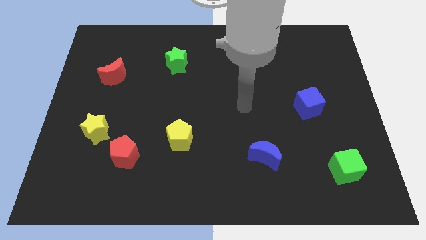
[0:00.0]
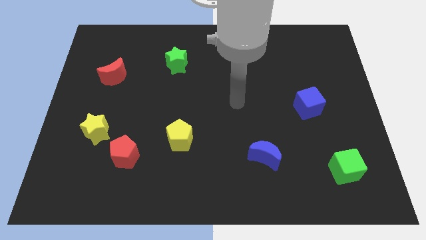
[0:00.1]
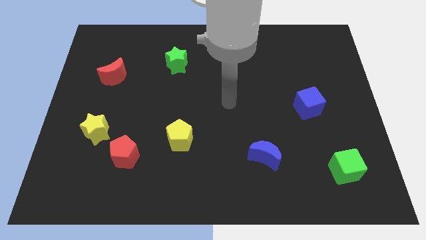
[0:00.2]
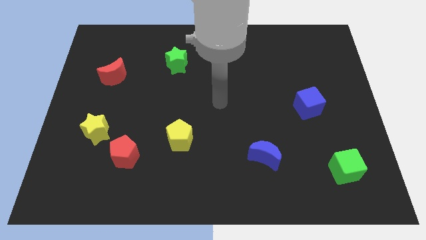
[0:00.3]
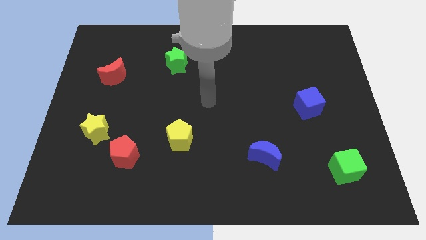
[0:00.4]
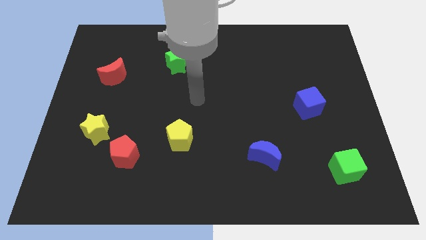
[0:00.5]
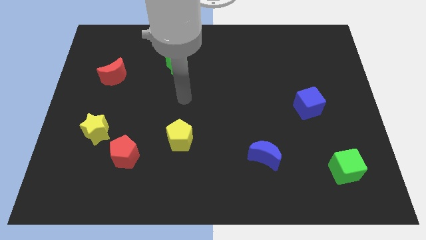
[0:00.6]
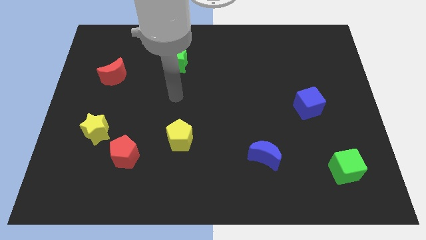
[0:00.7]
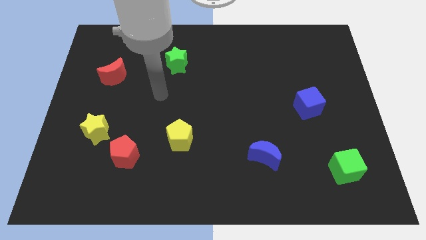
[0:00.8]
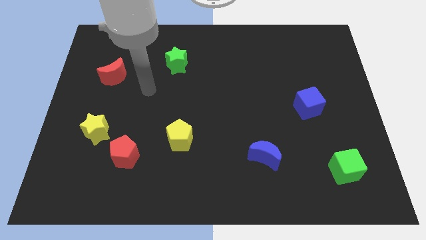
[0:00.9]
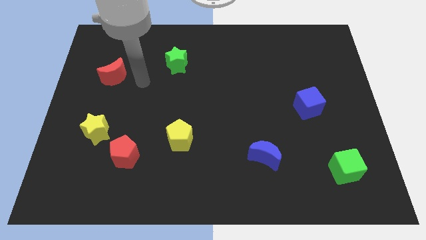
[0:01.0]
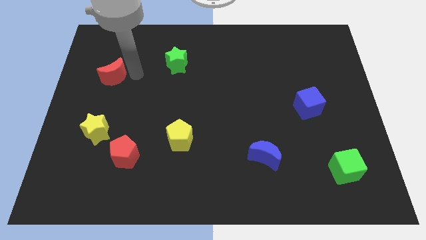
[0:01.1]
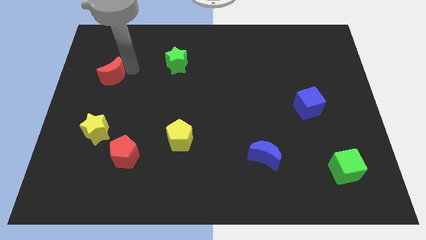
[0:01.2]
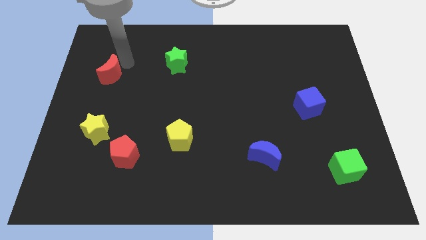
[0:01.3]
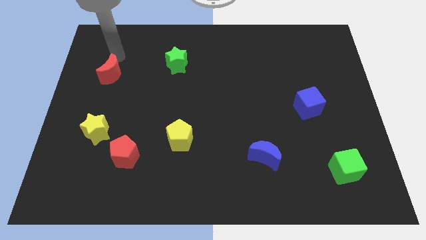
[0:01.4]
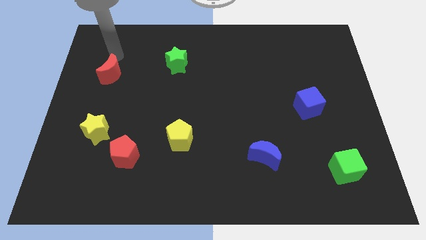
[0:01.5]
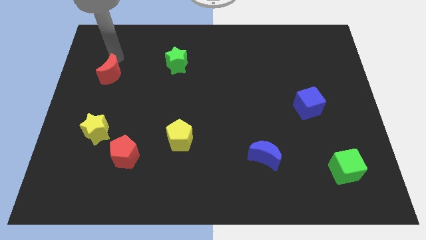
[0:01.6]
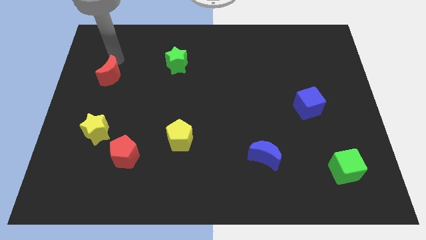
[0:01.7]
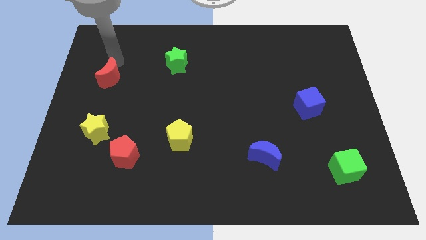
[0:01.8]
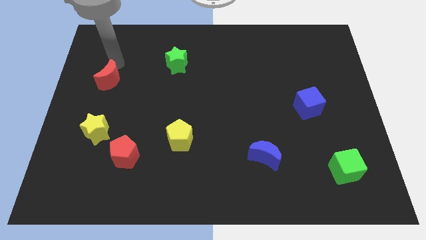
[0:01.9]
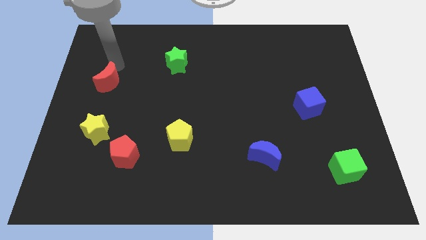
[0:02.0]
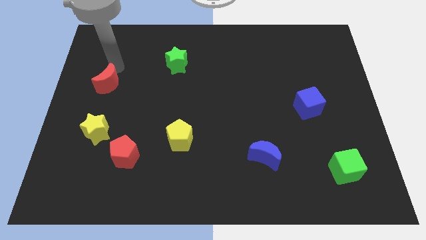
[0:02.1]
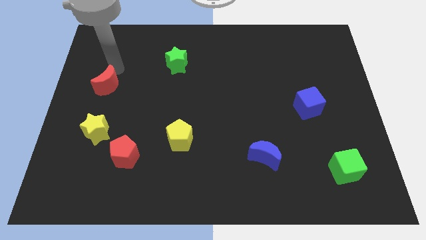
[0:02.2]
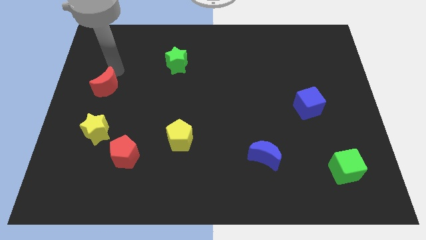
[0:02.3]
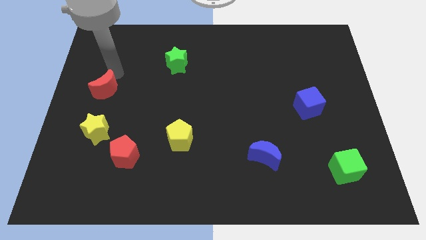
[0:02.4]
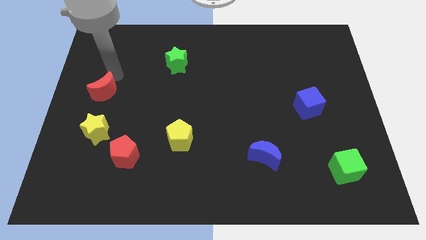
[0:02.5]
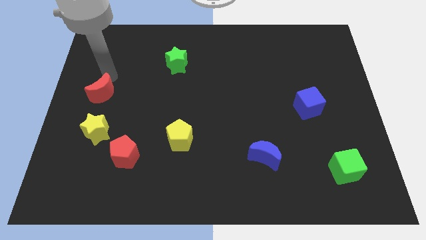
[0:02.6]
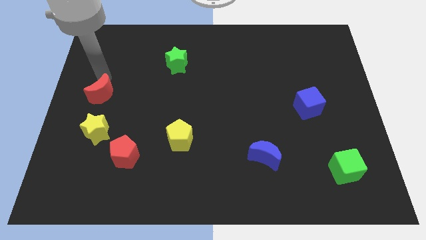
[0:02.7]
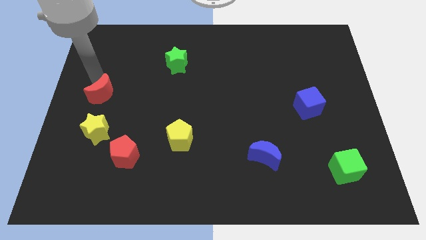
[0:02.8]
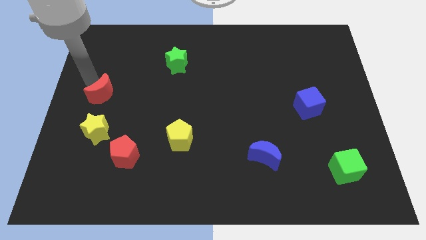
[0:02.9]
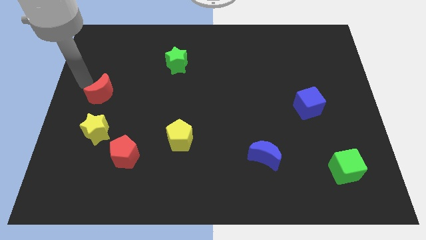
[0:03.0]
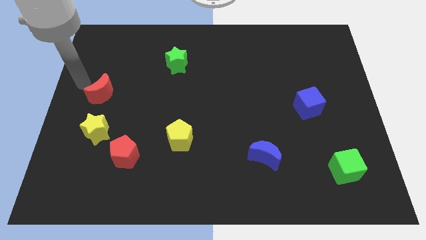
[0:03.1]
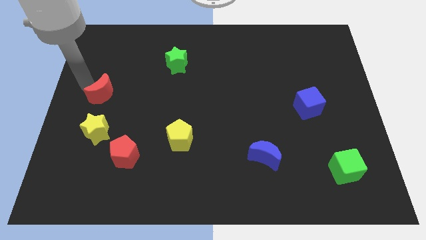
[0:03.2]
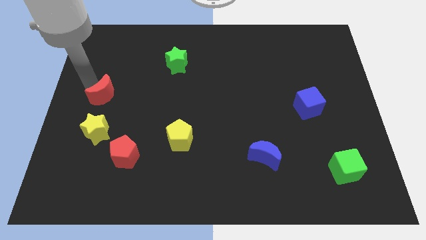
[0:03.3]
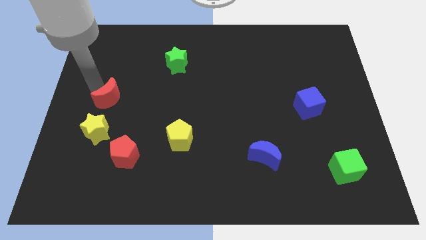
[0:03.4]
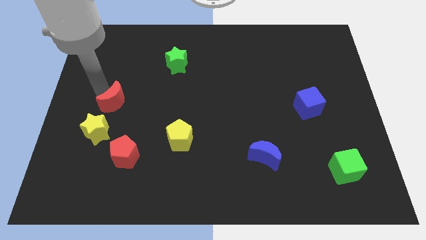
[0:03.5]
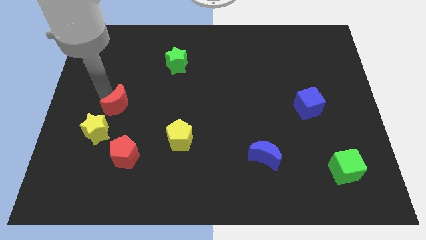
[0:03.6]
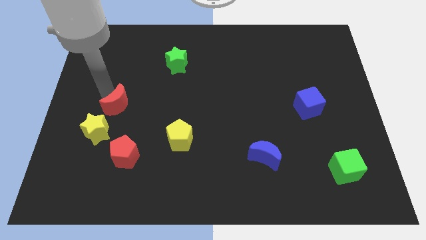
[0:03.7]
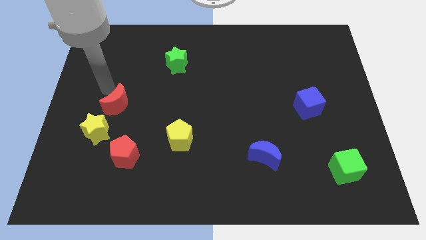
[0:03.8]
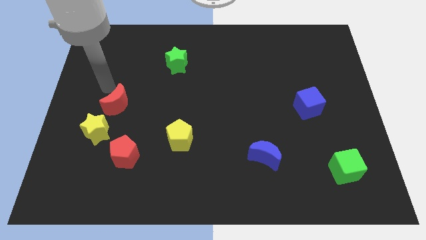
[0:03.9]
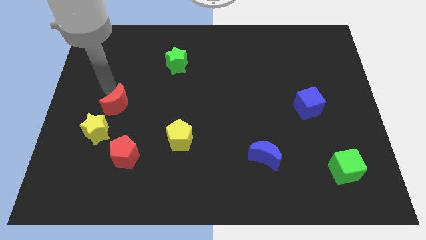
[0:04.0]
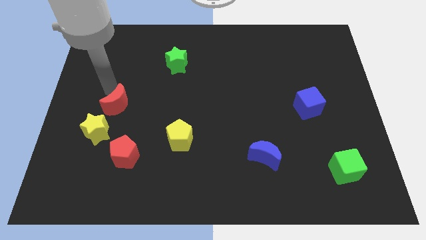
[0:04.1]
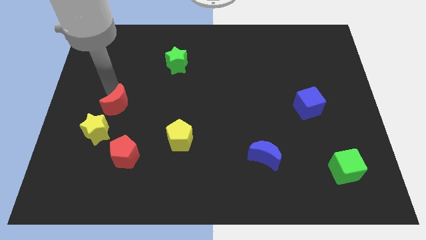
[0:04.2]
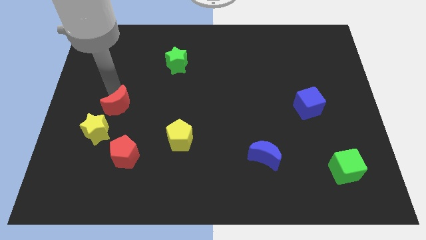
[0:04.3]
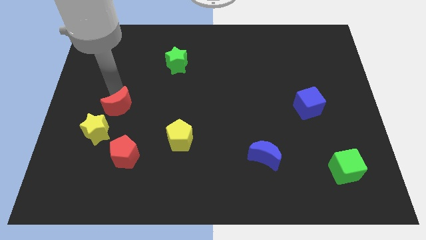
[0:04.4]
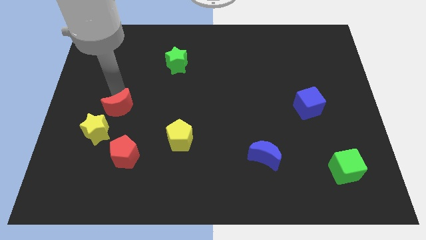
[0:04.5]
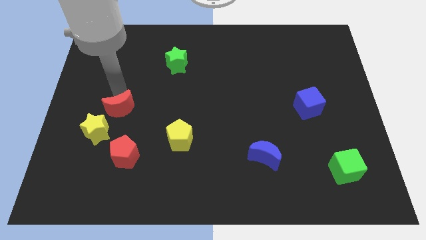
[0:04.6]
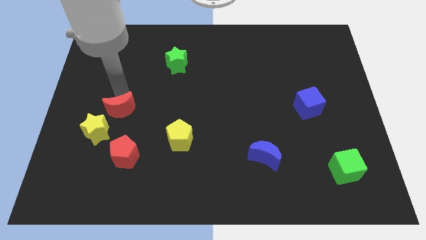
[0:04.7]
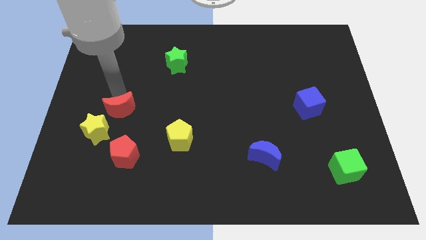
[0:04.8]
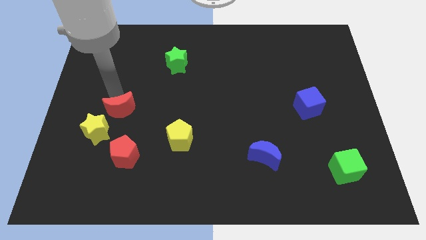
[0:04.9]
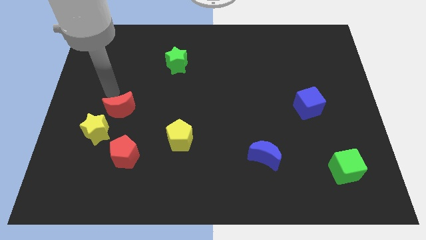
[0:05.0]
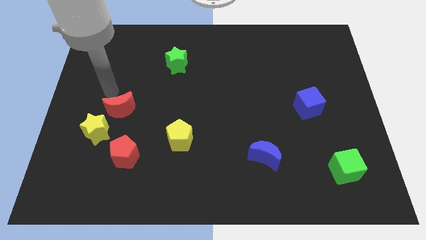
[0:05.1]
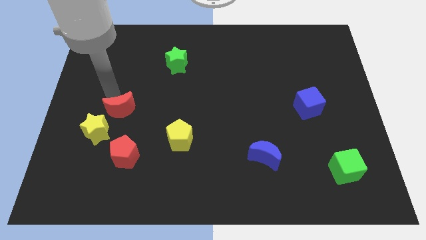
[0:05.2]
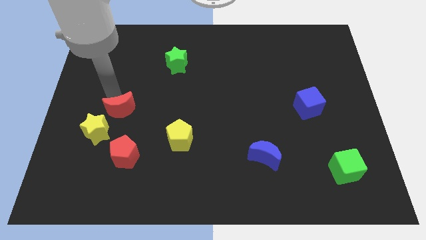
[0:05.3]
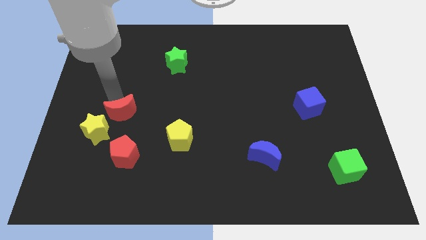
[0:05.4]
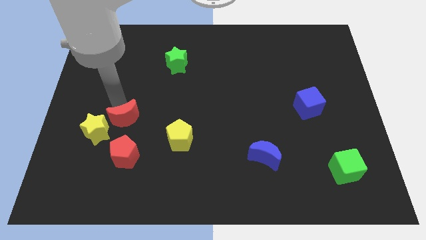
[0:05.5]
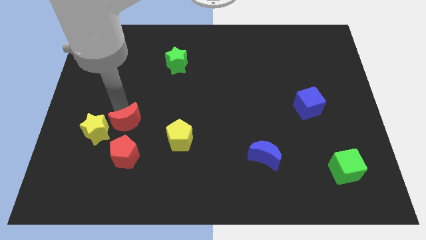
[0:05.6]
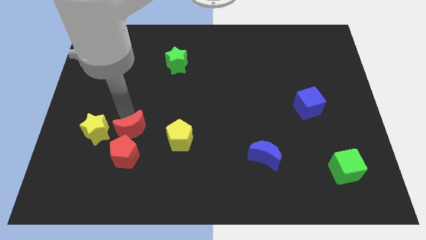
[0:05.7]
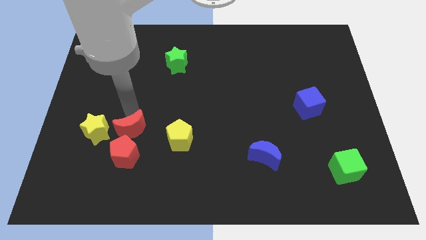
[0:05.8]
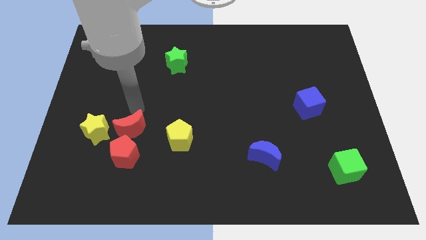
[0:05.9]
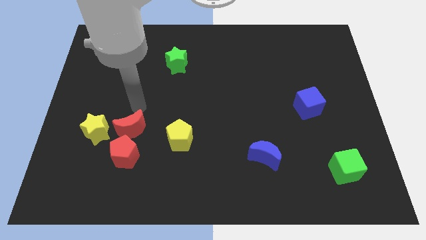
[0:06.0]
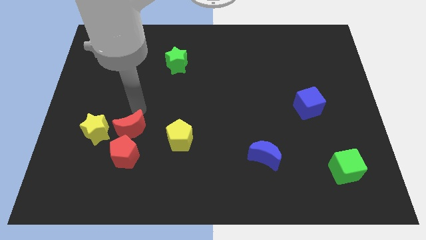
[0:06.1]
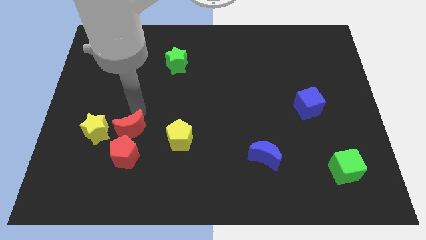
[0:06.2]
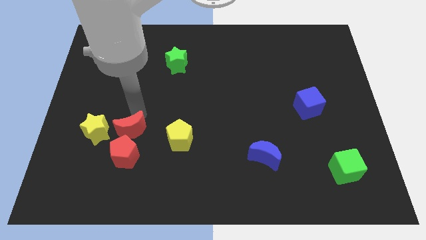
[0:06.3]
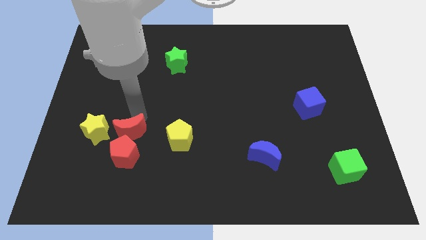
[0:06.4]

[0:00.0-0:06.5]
move the red moon towards the red pentagon
